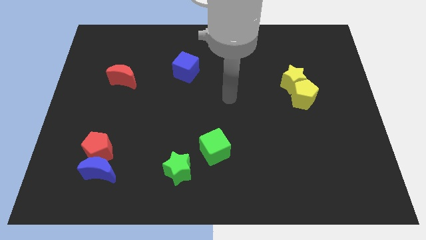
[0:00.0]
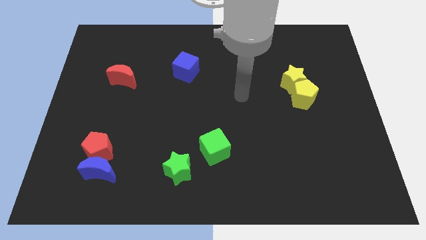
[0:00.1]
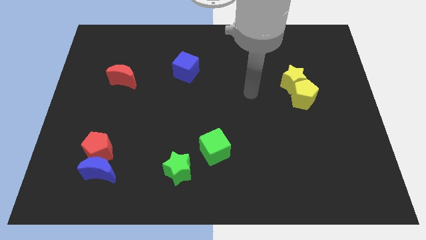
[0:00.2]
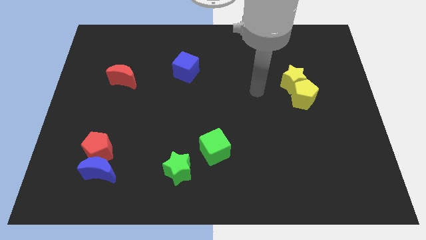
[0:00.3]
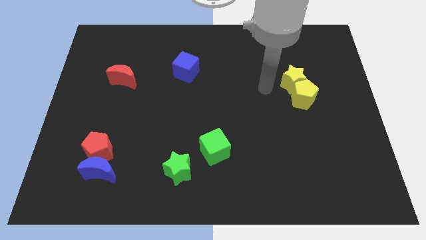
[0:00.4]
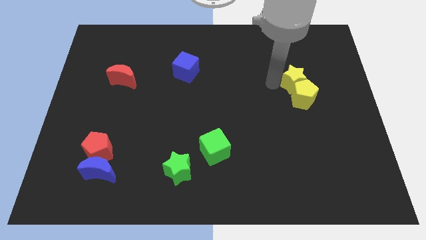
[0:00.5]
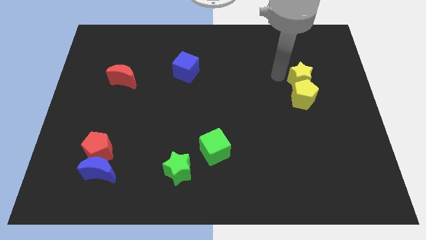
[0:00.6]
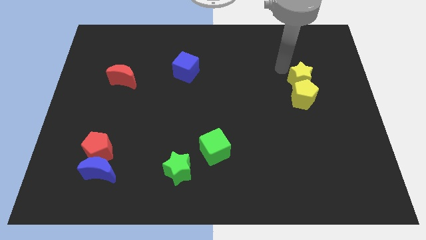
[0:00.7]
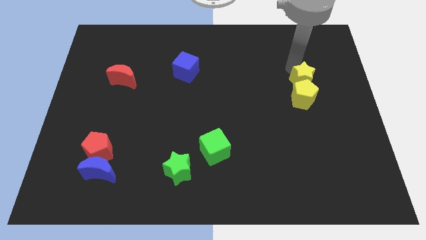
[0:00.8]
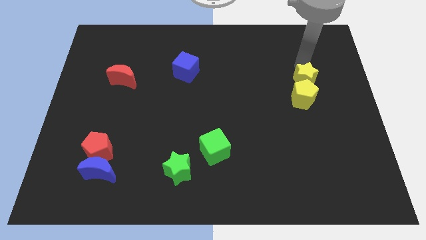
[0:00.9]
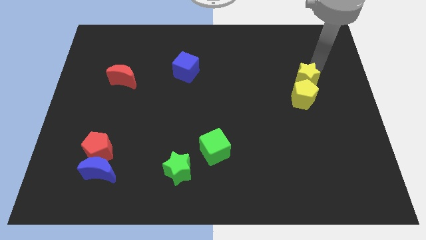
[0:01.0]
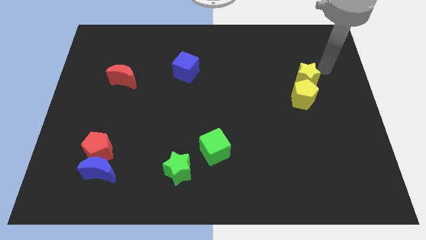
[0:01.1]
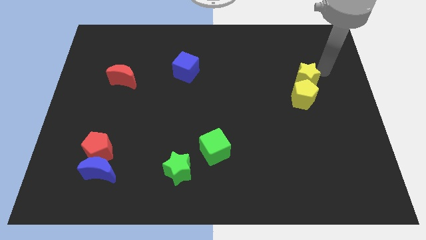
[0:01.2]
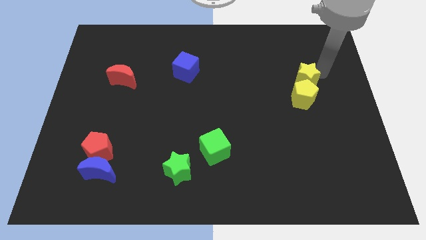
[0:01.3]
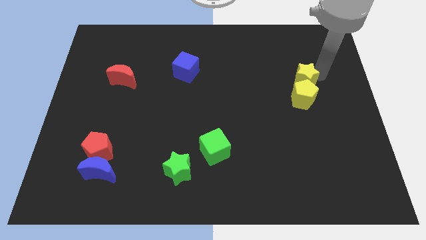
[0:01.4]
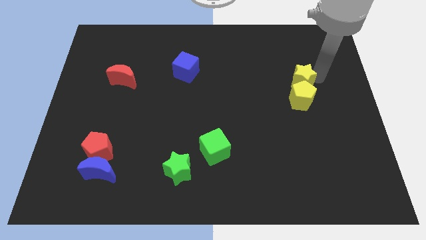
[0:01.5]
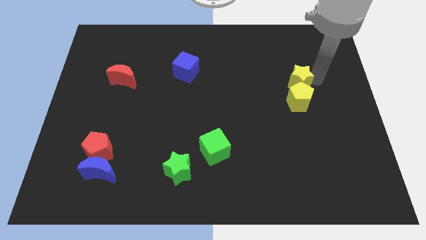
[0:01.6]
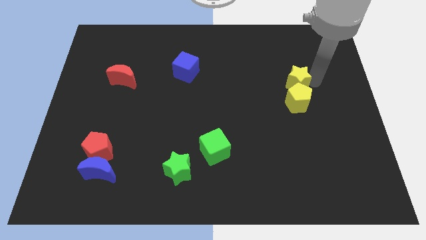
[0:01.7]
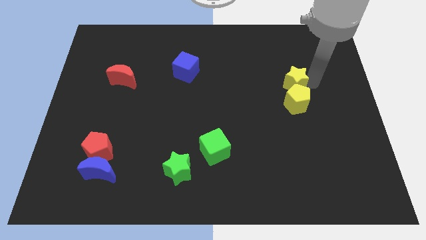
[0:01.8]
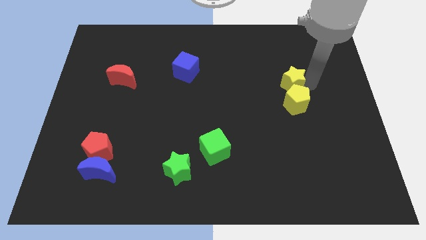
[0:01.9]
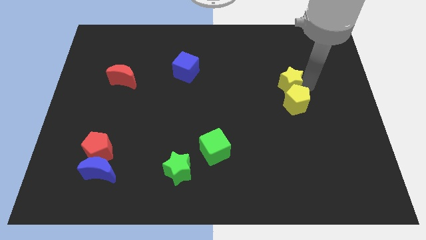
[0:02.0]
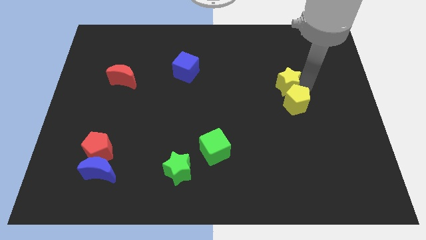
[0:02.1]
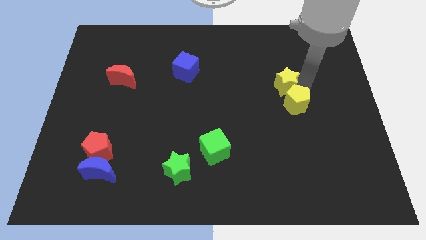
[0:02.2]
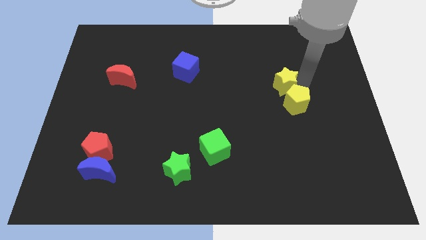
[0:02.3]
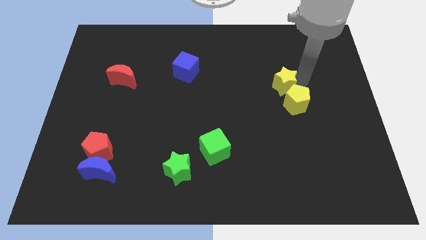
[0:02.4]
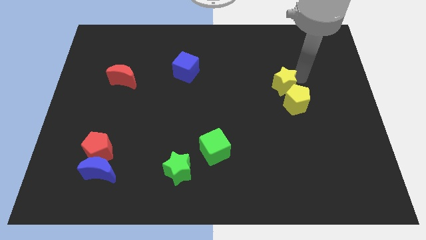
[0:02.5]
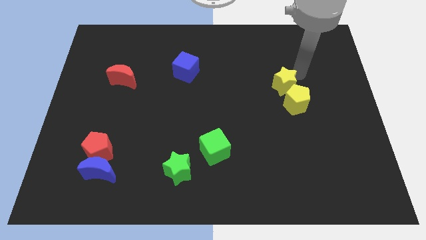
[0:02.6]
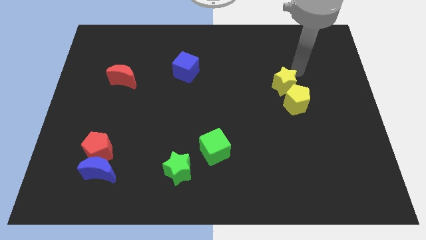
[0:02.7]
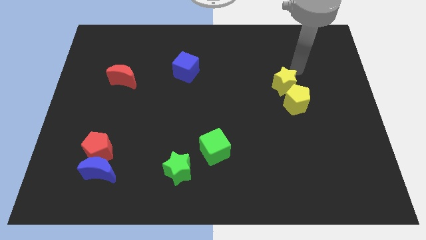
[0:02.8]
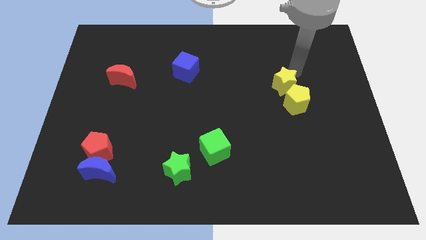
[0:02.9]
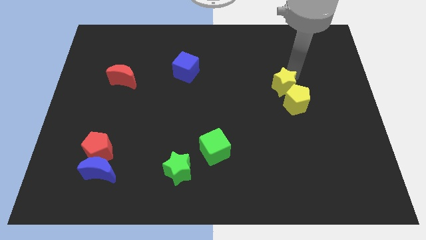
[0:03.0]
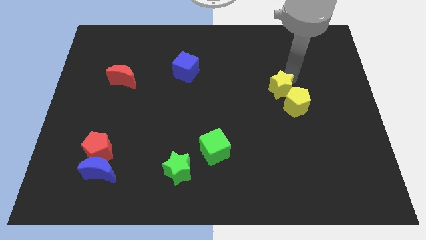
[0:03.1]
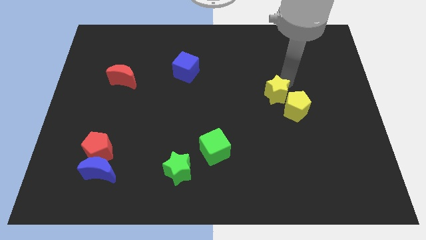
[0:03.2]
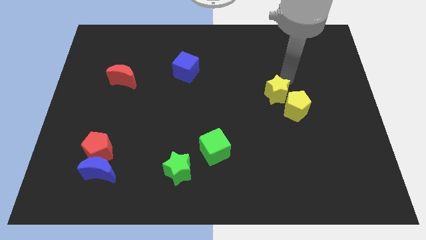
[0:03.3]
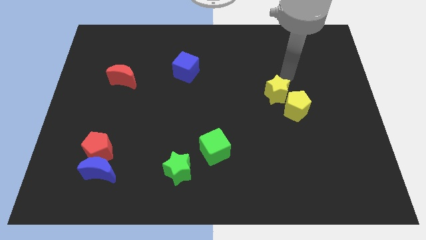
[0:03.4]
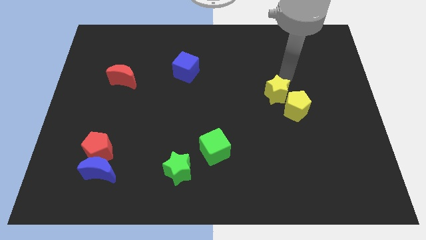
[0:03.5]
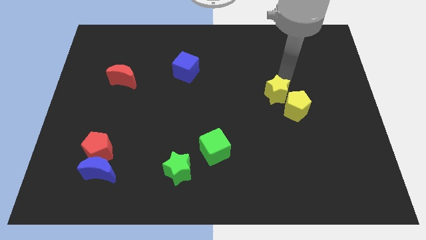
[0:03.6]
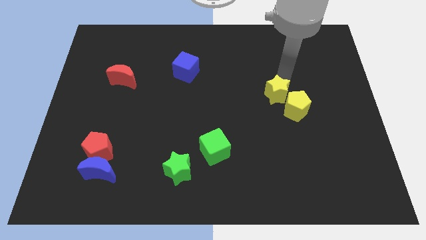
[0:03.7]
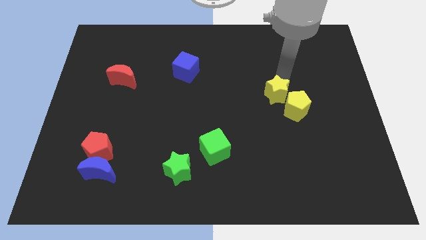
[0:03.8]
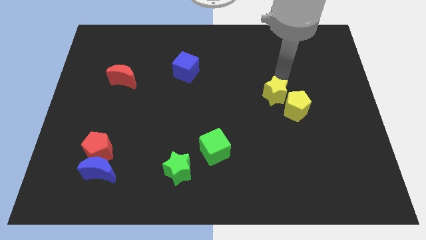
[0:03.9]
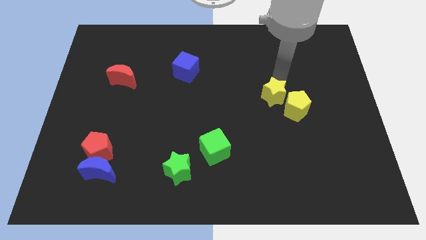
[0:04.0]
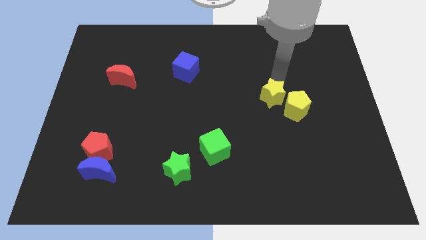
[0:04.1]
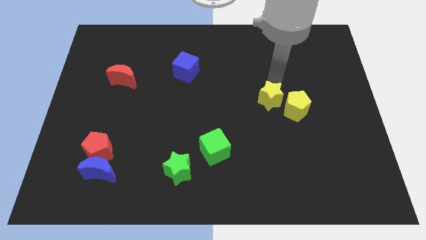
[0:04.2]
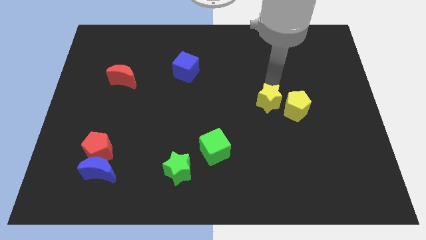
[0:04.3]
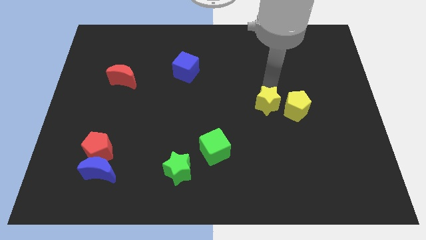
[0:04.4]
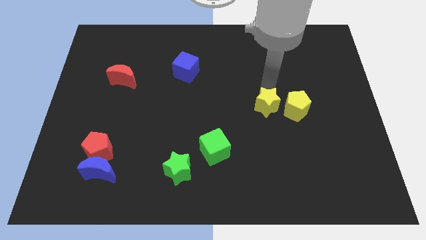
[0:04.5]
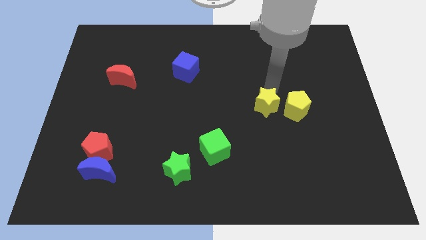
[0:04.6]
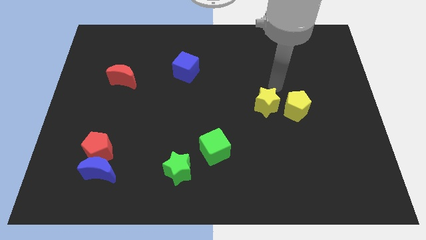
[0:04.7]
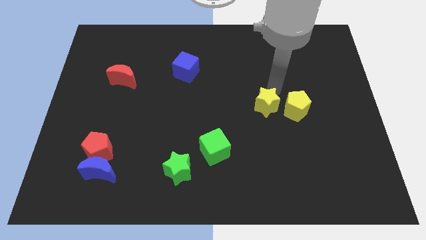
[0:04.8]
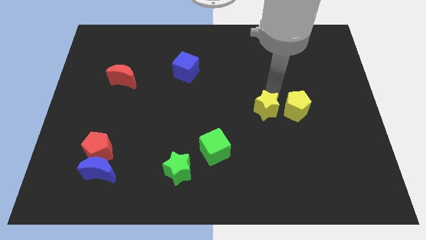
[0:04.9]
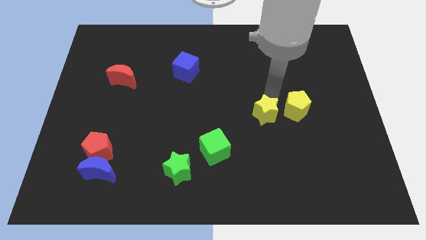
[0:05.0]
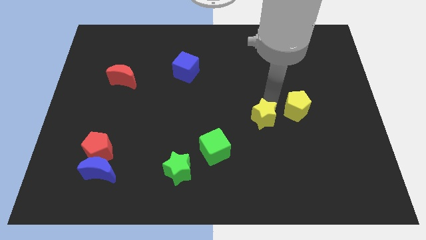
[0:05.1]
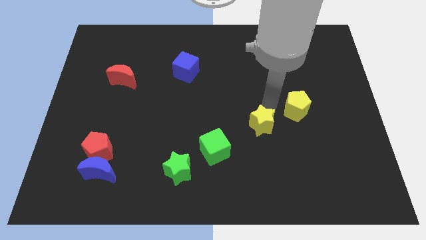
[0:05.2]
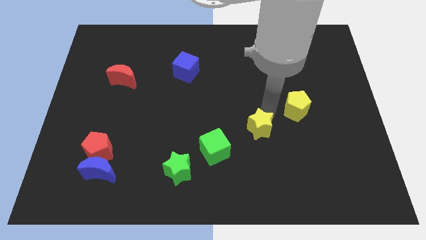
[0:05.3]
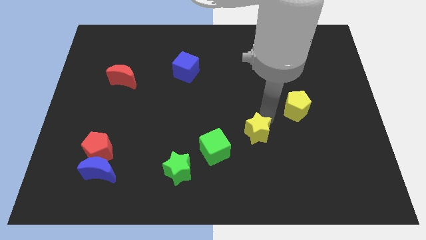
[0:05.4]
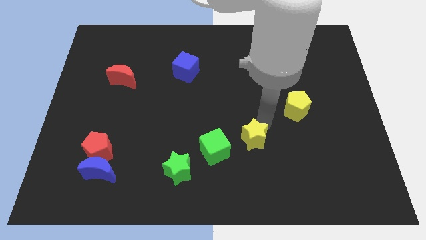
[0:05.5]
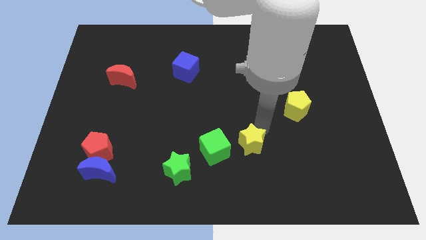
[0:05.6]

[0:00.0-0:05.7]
move the yellow star downwards and to the left

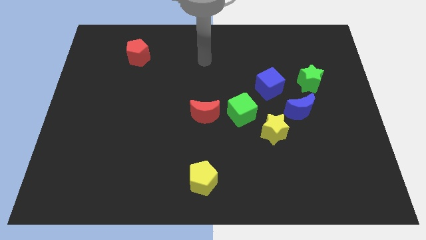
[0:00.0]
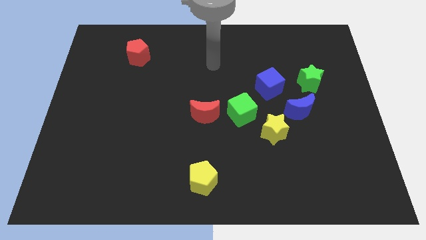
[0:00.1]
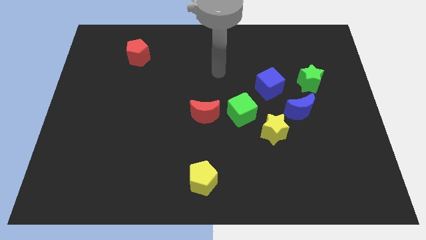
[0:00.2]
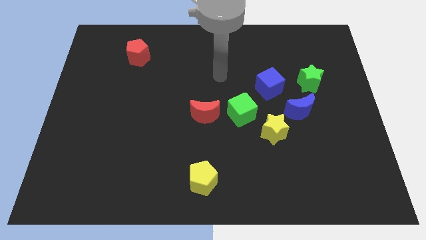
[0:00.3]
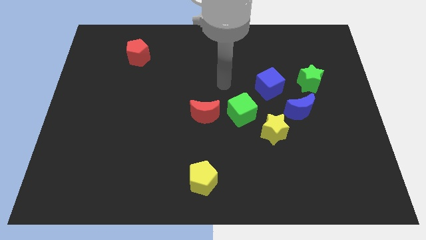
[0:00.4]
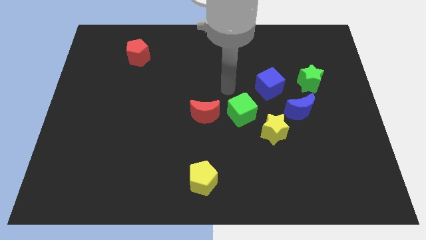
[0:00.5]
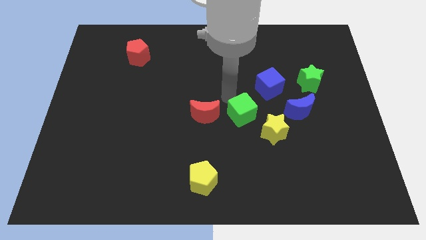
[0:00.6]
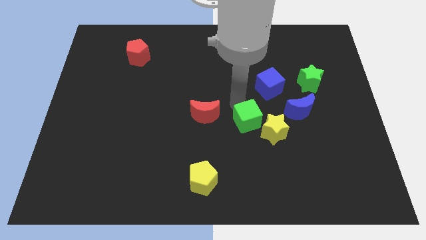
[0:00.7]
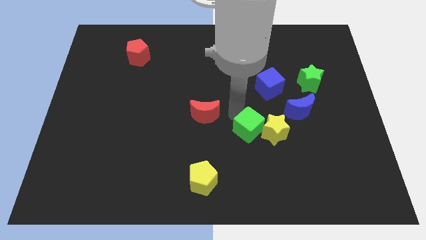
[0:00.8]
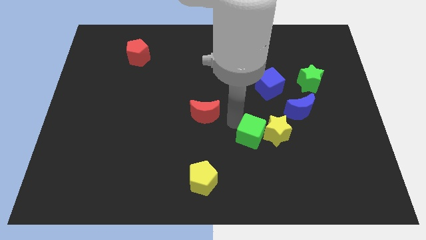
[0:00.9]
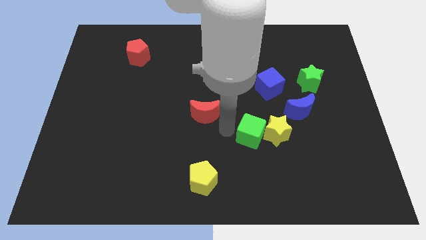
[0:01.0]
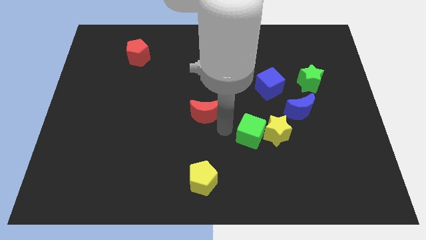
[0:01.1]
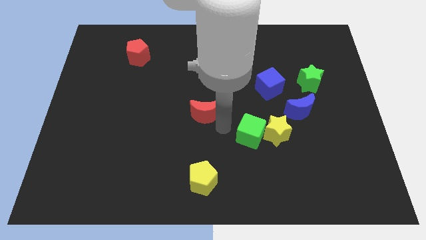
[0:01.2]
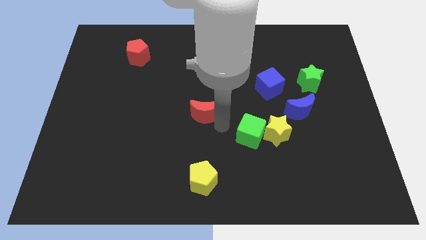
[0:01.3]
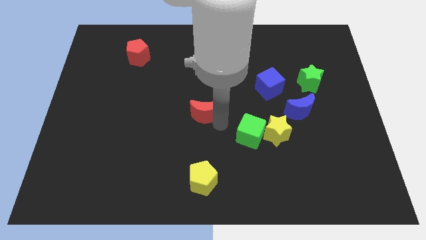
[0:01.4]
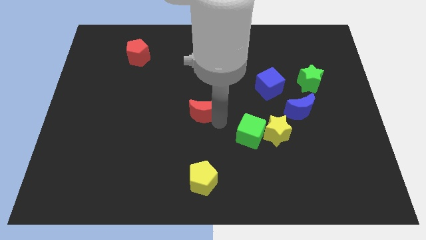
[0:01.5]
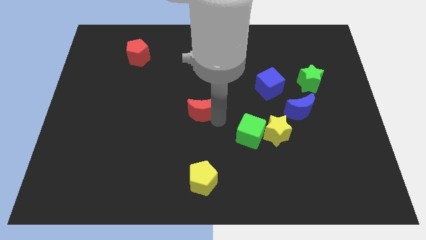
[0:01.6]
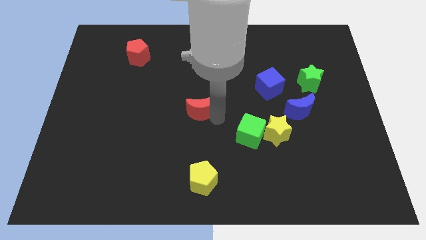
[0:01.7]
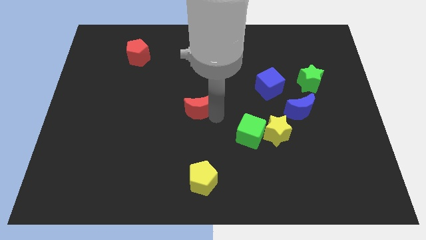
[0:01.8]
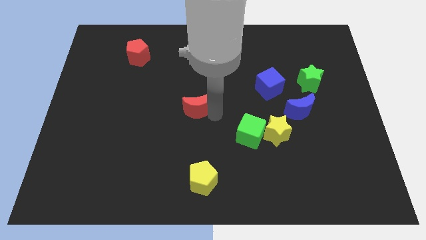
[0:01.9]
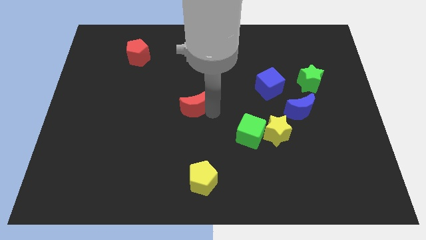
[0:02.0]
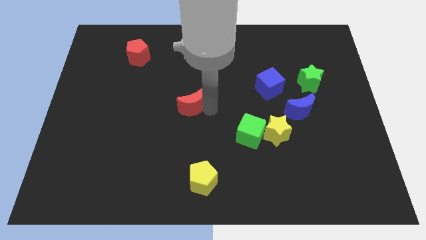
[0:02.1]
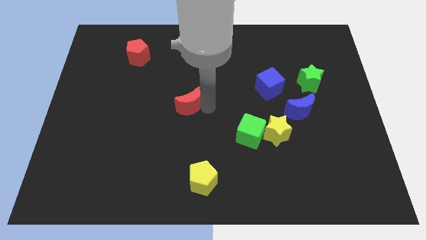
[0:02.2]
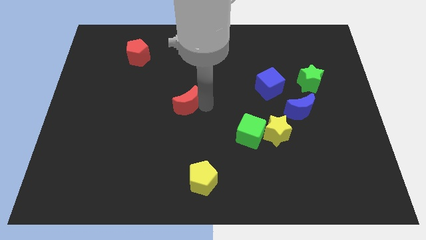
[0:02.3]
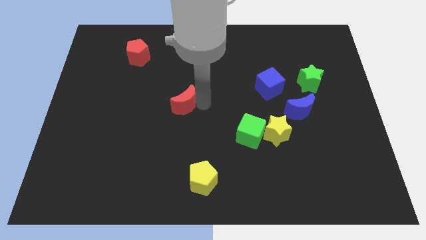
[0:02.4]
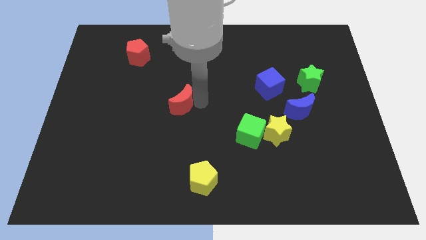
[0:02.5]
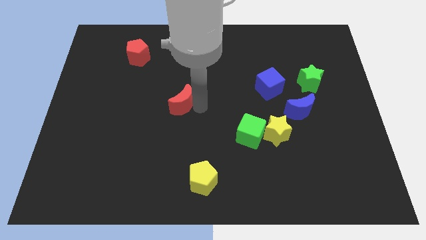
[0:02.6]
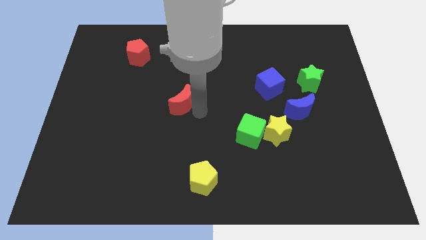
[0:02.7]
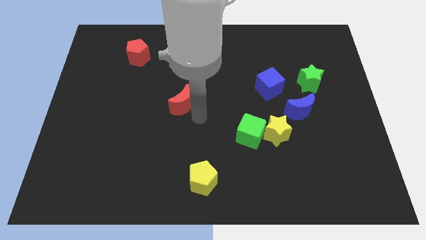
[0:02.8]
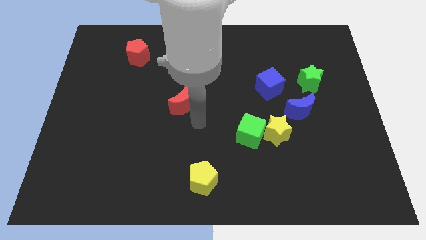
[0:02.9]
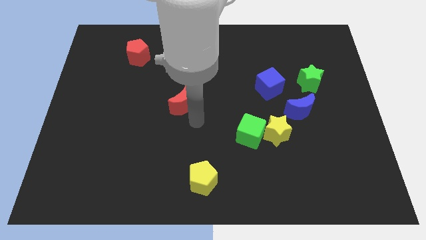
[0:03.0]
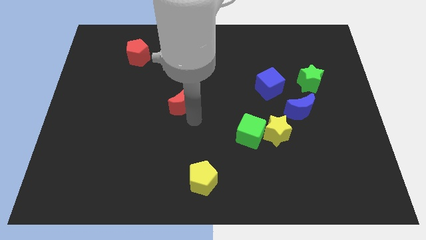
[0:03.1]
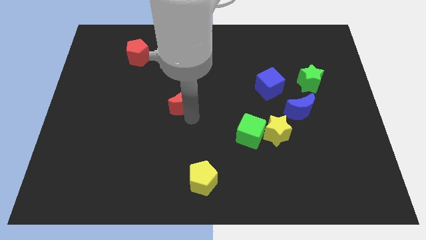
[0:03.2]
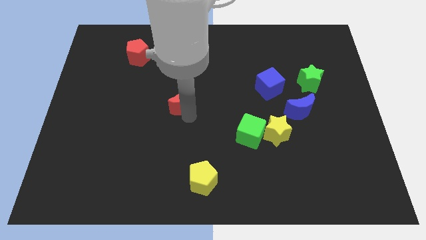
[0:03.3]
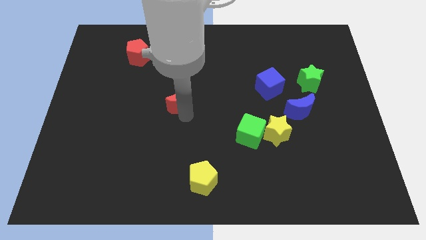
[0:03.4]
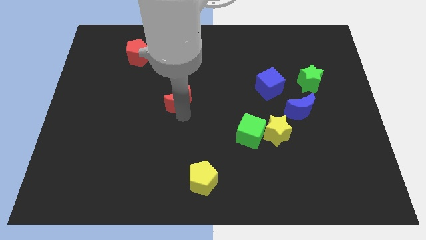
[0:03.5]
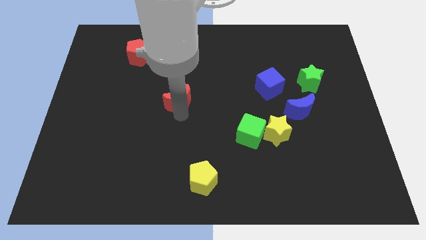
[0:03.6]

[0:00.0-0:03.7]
move the red moon a little up and then to the left
